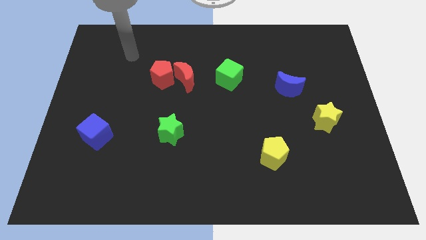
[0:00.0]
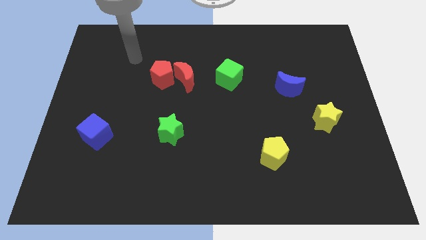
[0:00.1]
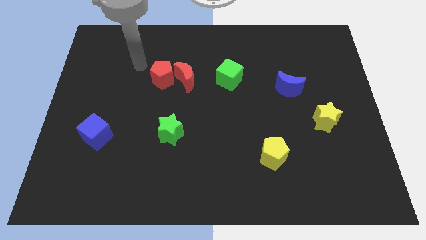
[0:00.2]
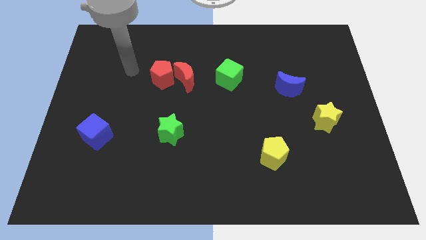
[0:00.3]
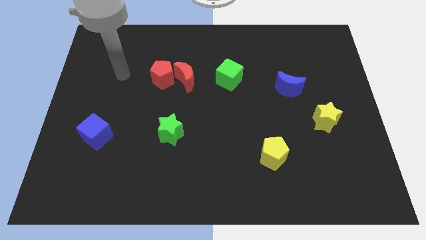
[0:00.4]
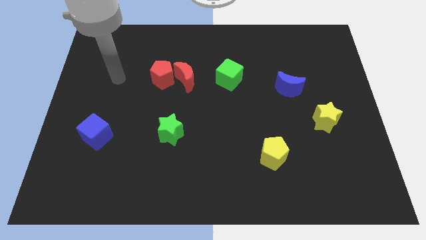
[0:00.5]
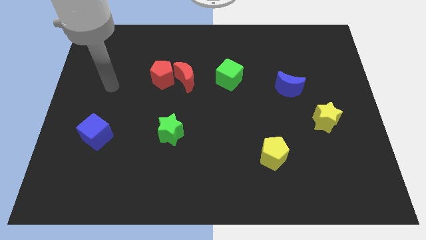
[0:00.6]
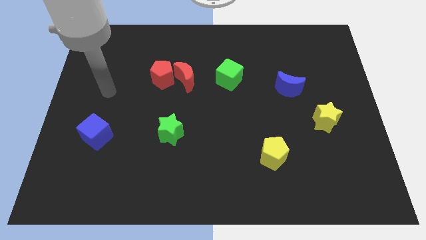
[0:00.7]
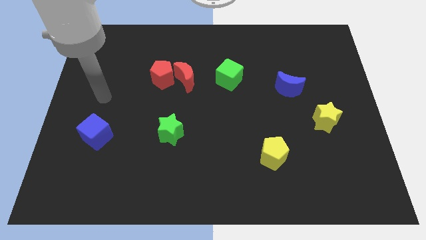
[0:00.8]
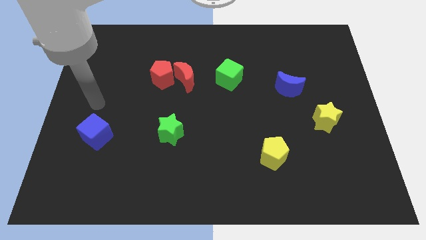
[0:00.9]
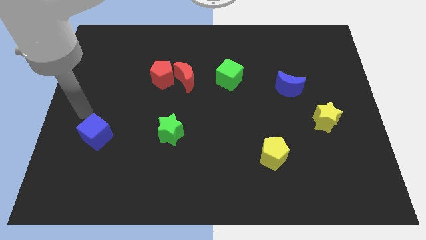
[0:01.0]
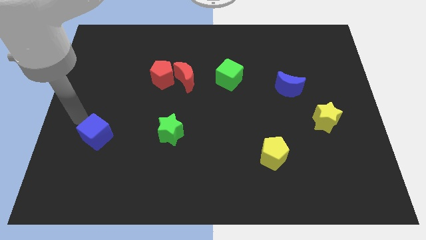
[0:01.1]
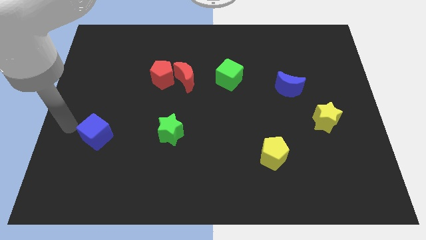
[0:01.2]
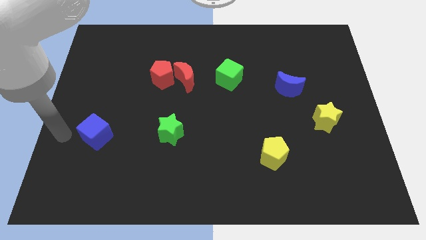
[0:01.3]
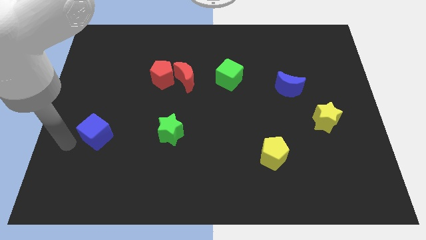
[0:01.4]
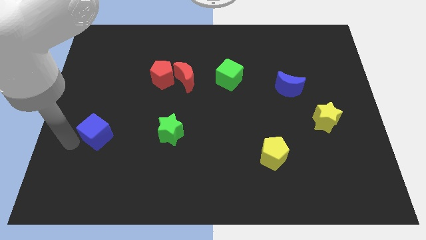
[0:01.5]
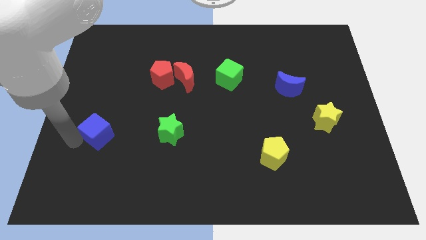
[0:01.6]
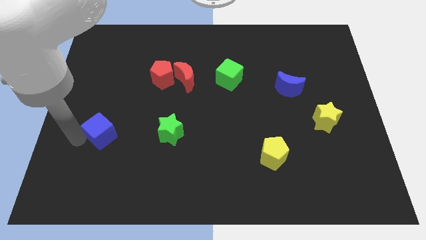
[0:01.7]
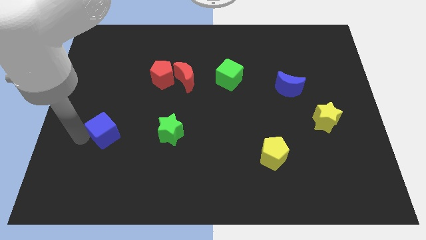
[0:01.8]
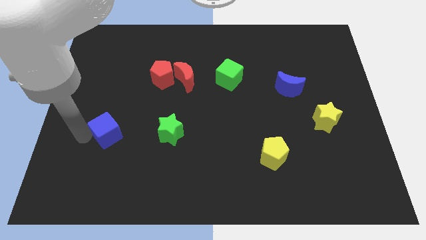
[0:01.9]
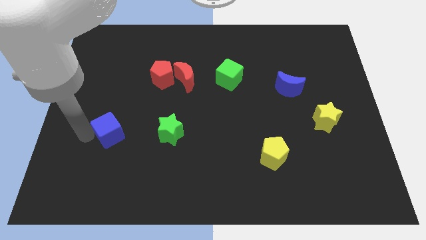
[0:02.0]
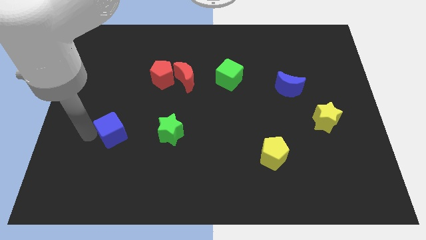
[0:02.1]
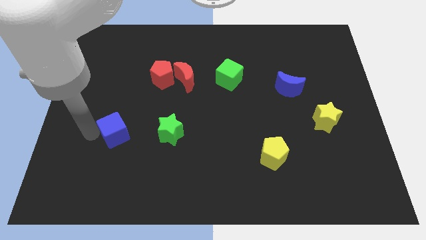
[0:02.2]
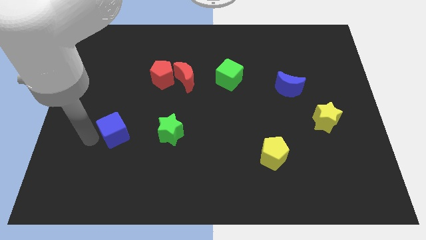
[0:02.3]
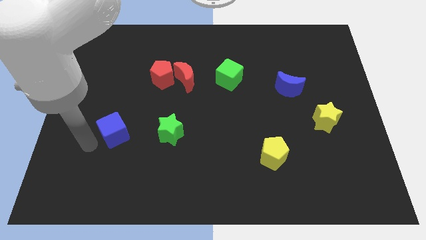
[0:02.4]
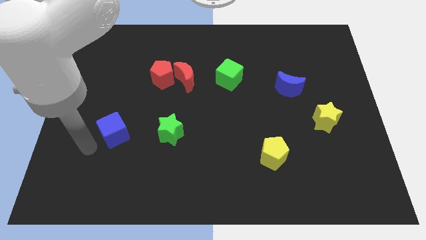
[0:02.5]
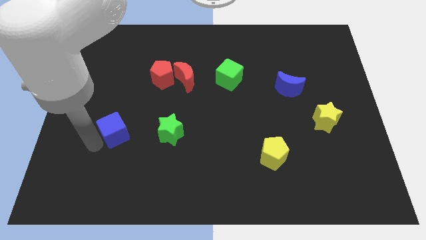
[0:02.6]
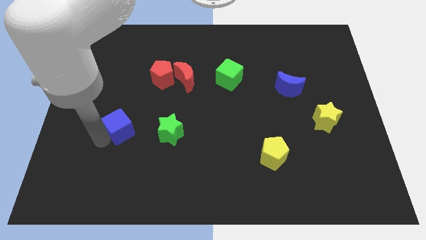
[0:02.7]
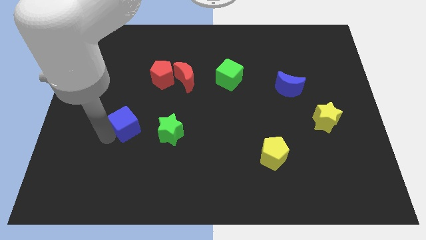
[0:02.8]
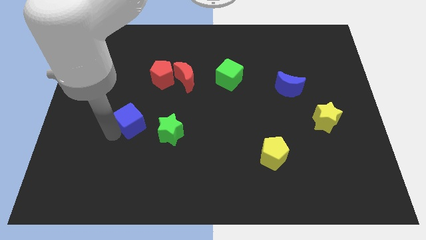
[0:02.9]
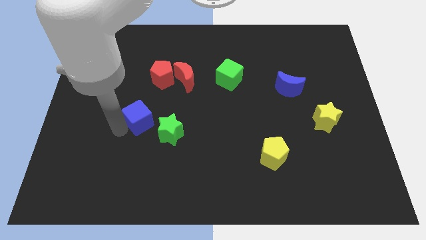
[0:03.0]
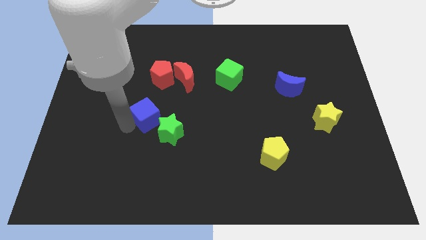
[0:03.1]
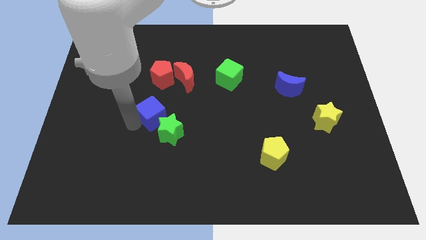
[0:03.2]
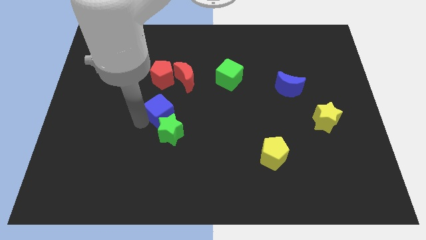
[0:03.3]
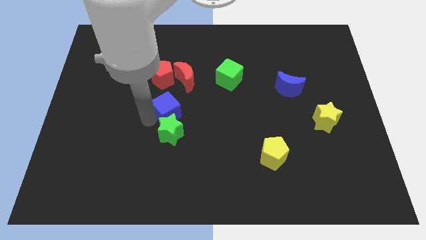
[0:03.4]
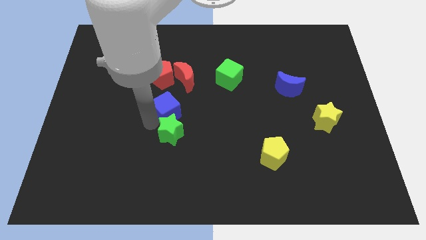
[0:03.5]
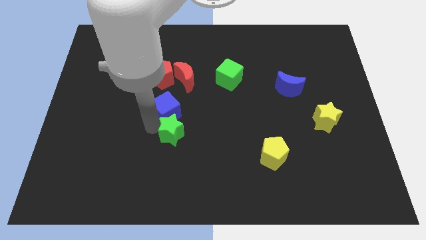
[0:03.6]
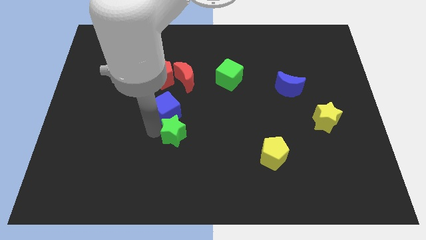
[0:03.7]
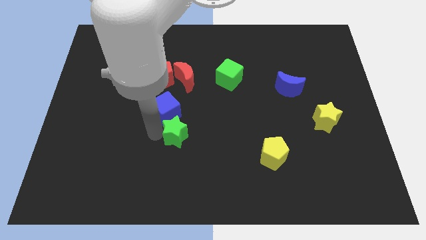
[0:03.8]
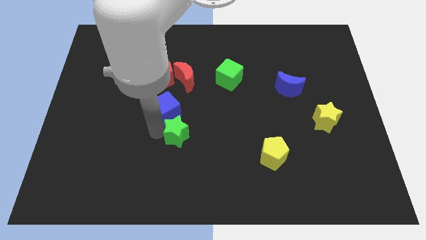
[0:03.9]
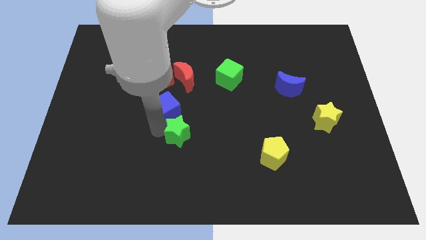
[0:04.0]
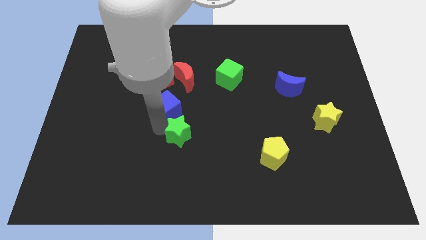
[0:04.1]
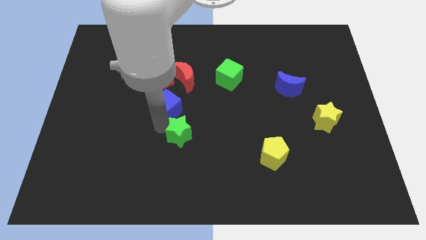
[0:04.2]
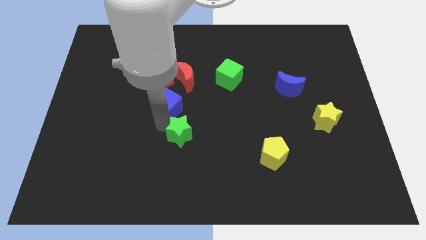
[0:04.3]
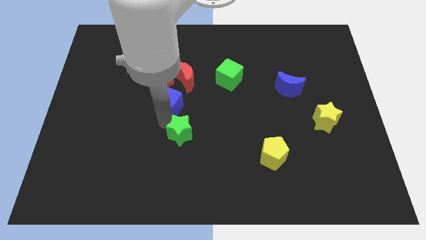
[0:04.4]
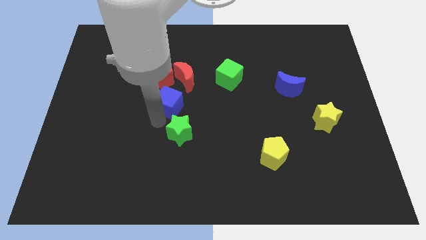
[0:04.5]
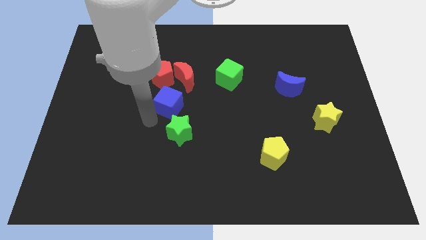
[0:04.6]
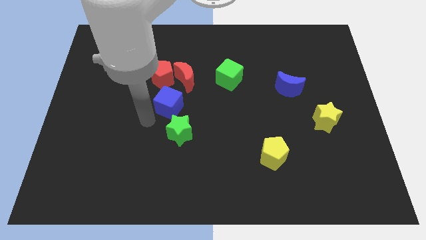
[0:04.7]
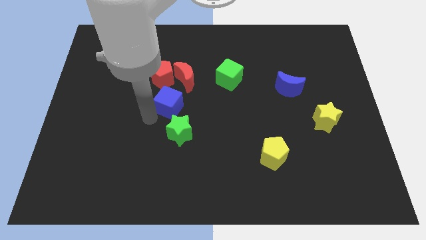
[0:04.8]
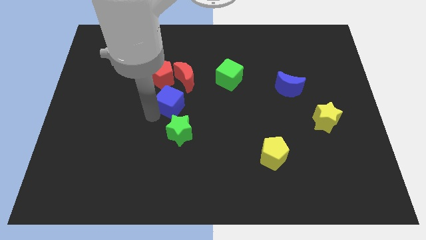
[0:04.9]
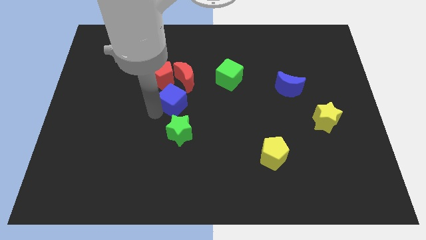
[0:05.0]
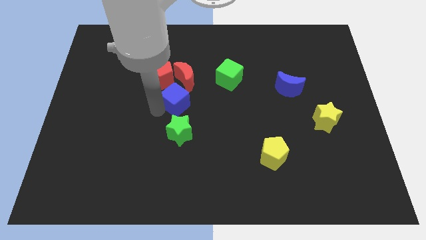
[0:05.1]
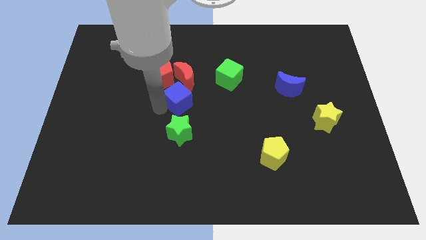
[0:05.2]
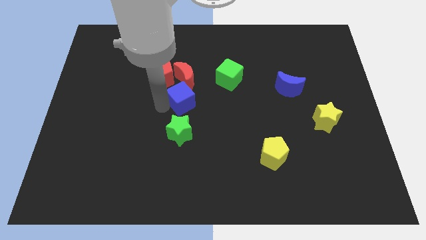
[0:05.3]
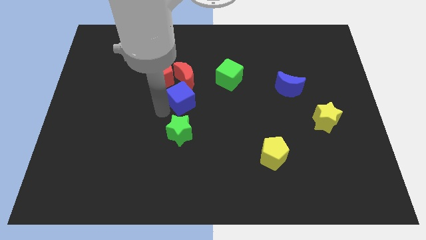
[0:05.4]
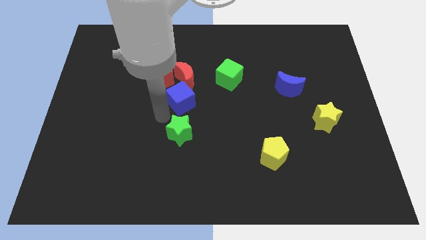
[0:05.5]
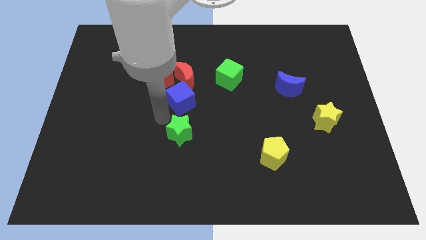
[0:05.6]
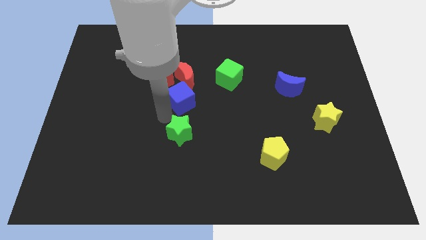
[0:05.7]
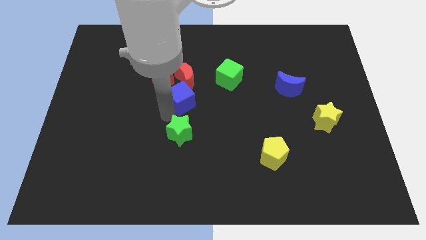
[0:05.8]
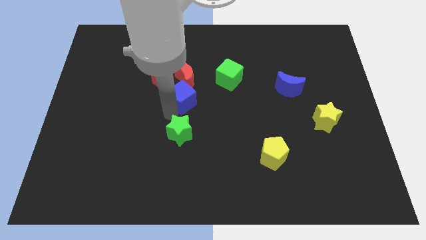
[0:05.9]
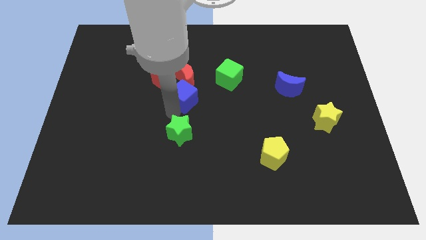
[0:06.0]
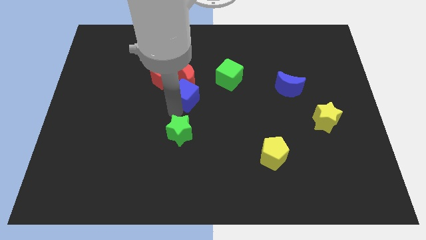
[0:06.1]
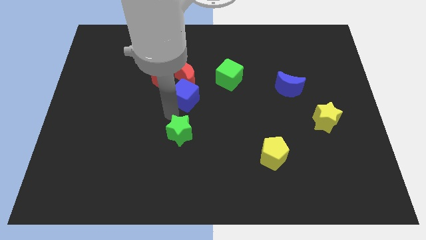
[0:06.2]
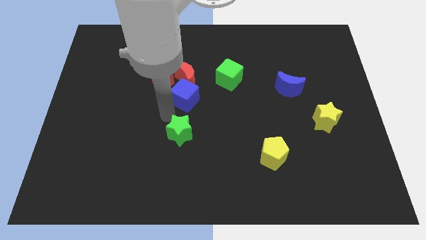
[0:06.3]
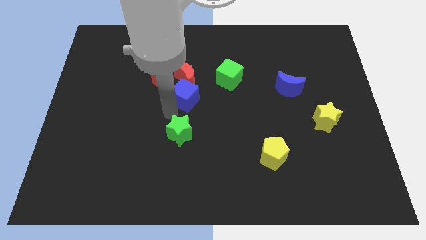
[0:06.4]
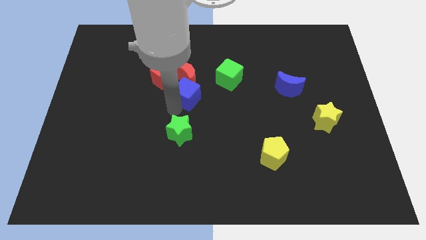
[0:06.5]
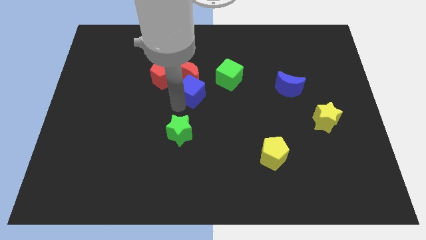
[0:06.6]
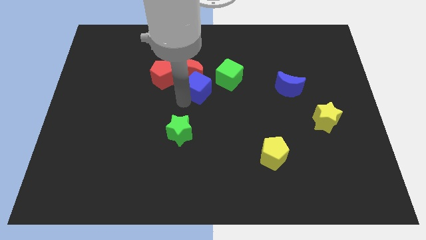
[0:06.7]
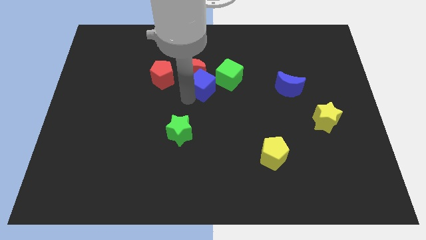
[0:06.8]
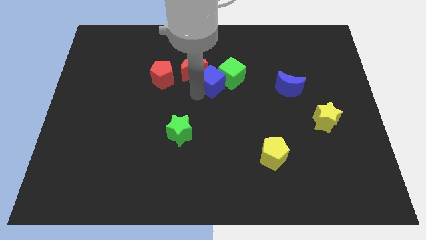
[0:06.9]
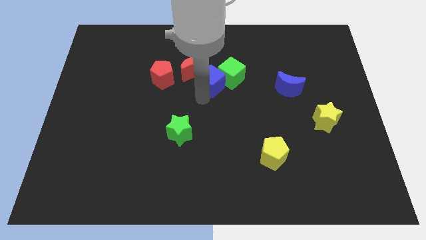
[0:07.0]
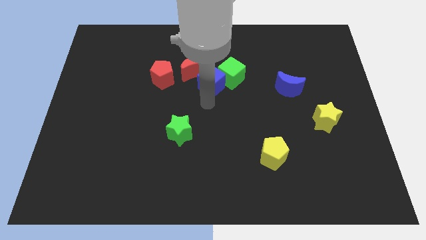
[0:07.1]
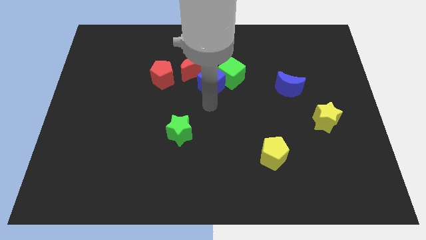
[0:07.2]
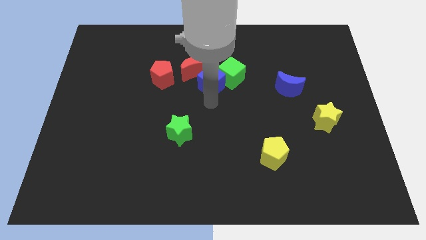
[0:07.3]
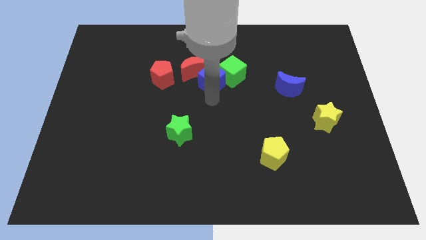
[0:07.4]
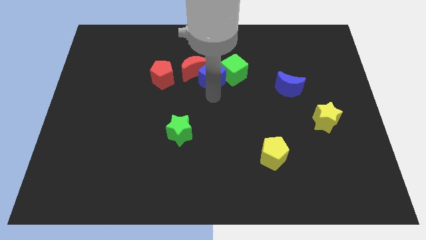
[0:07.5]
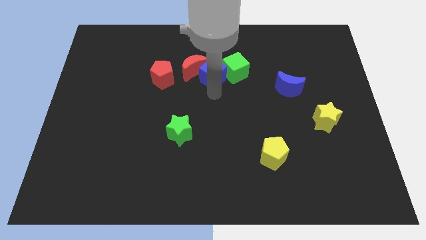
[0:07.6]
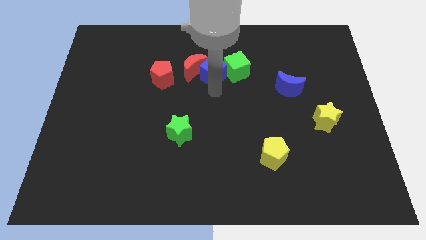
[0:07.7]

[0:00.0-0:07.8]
put the blue cube diagonally up and to the right of the red moon
